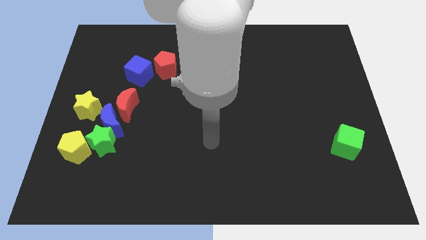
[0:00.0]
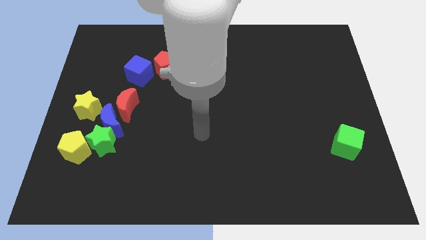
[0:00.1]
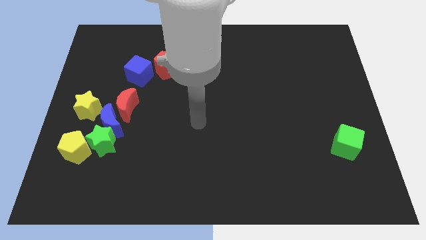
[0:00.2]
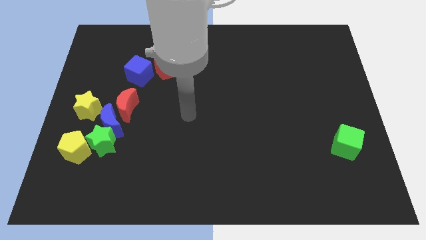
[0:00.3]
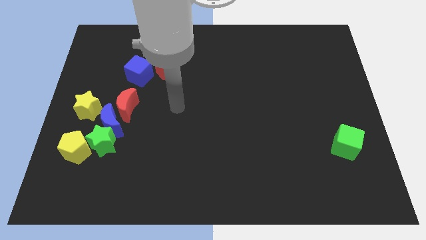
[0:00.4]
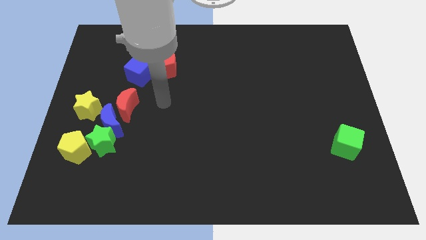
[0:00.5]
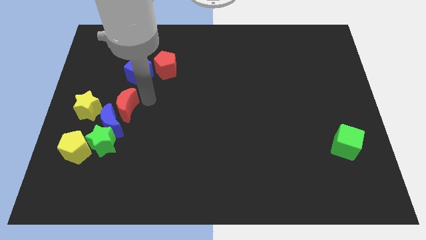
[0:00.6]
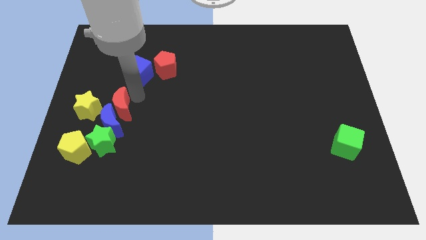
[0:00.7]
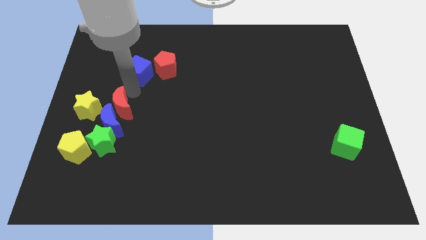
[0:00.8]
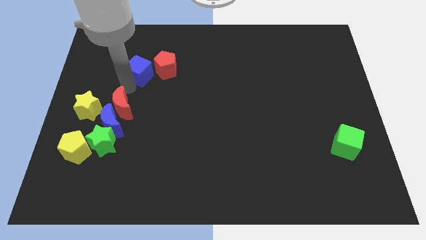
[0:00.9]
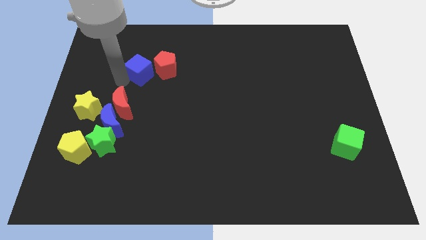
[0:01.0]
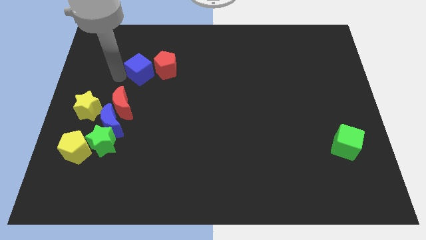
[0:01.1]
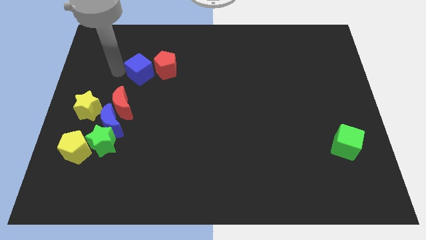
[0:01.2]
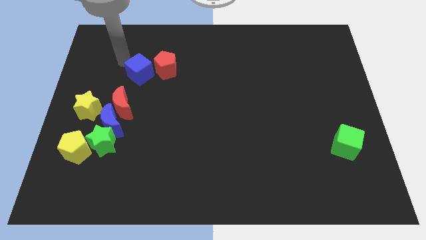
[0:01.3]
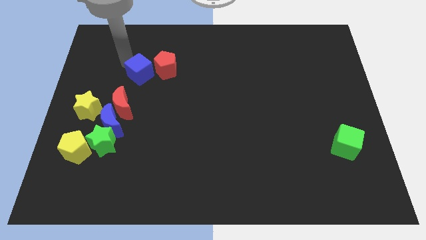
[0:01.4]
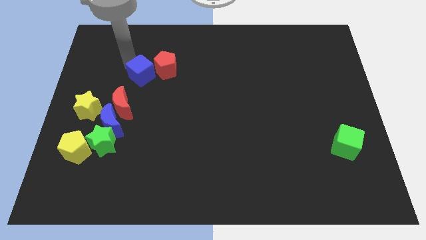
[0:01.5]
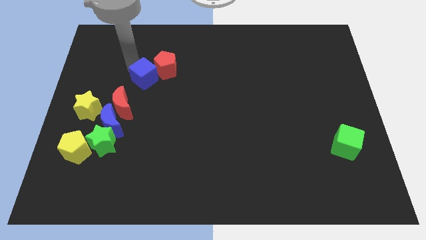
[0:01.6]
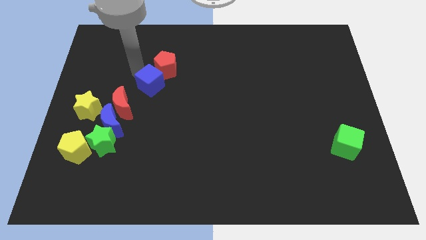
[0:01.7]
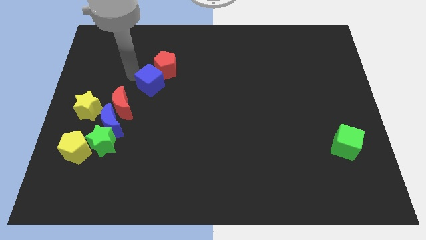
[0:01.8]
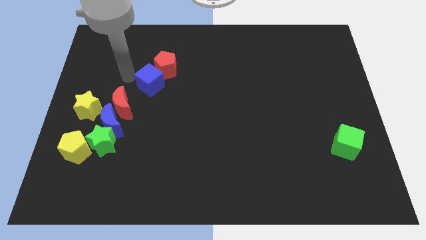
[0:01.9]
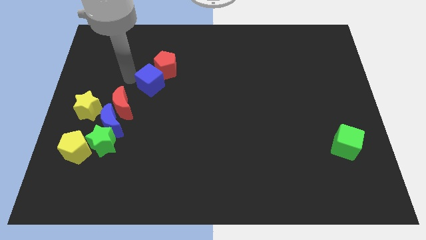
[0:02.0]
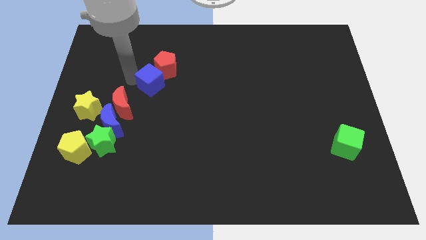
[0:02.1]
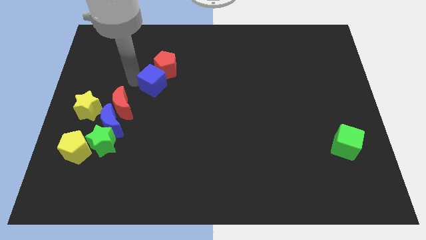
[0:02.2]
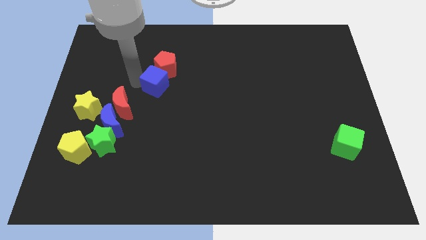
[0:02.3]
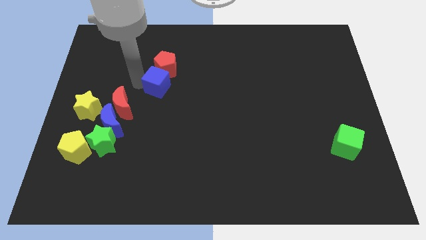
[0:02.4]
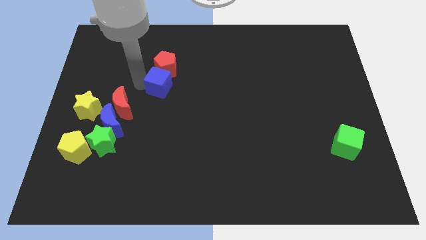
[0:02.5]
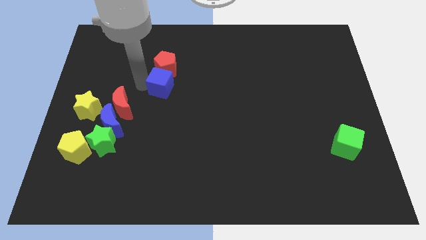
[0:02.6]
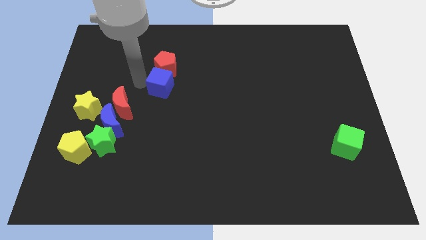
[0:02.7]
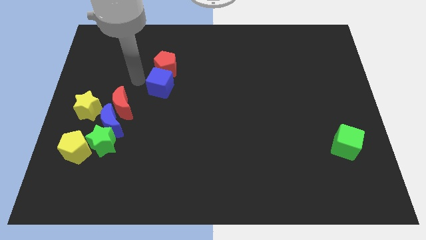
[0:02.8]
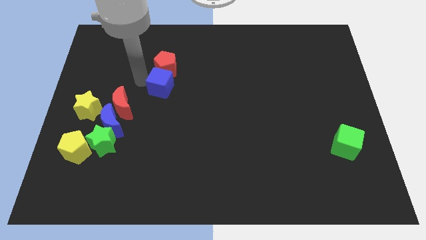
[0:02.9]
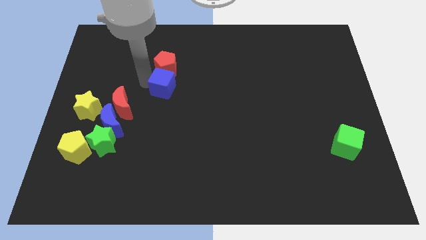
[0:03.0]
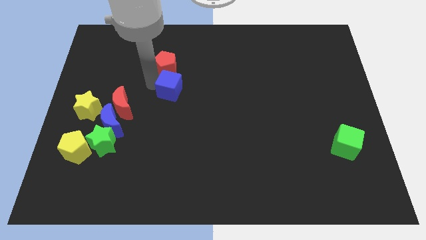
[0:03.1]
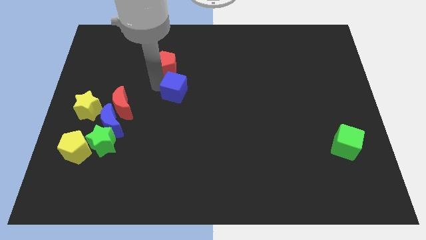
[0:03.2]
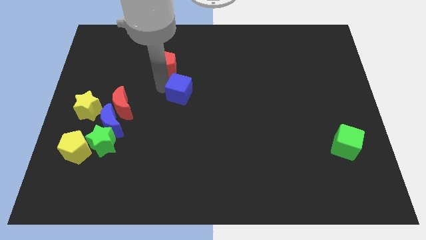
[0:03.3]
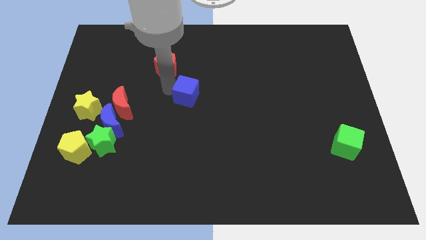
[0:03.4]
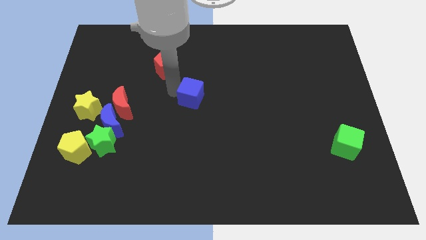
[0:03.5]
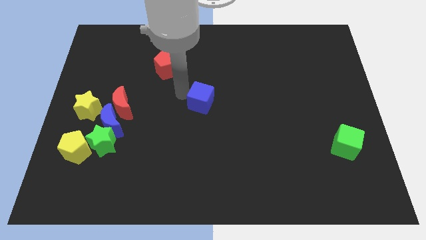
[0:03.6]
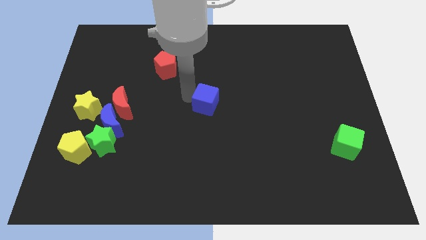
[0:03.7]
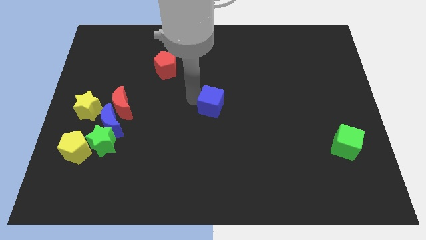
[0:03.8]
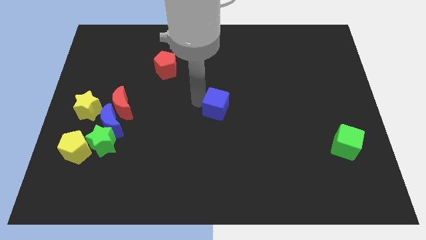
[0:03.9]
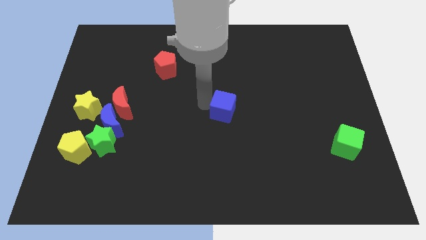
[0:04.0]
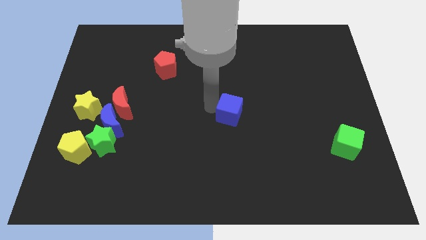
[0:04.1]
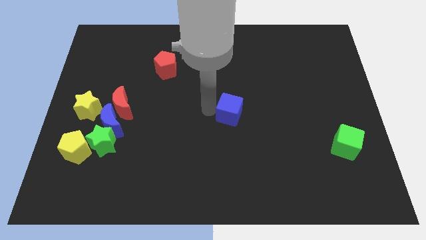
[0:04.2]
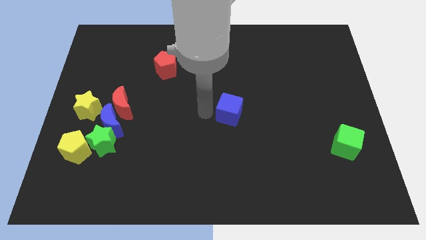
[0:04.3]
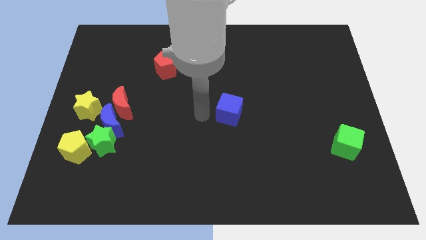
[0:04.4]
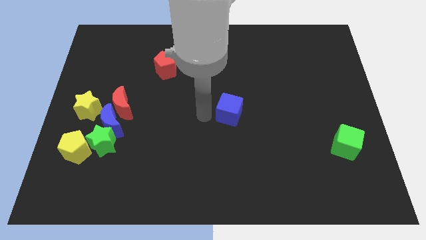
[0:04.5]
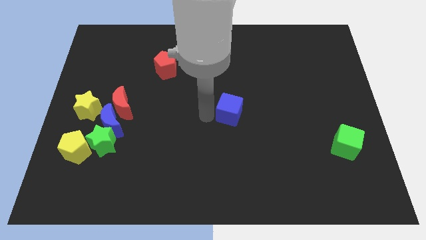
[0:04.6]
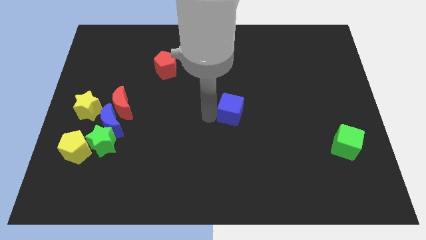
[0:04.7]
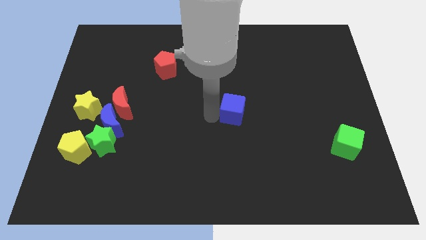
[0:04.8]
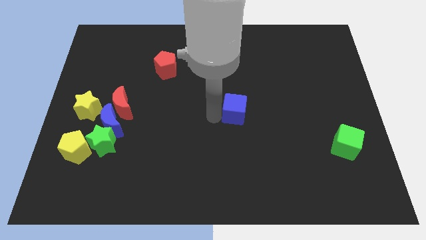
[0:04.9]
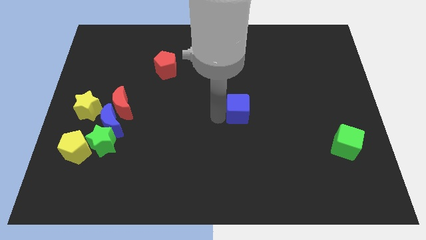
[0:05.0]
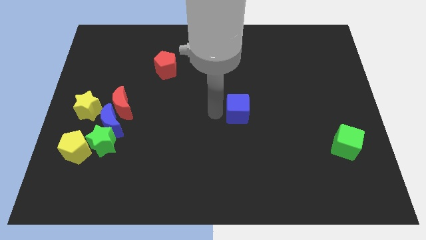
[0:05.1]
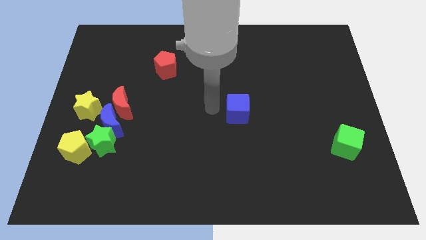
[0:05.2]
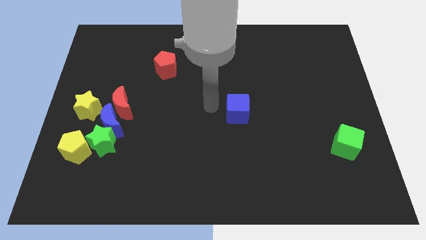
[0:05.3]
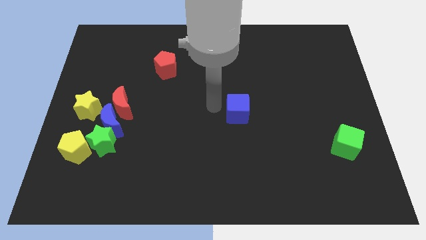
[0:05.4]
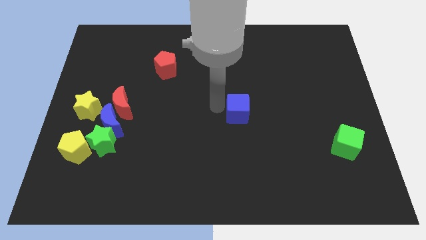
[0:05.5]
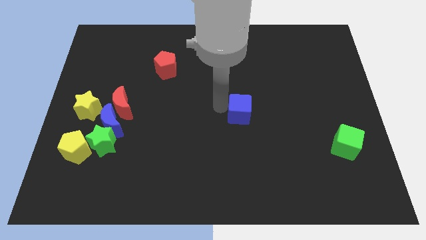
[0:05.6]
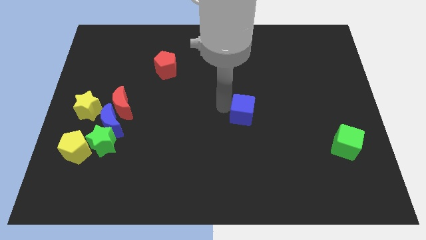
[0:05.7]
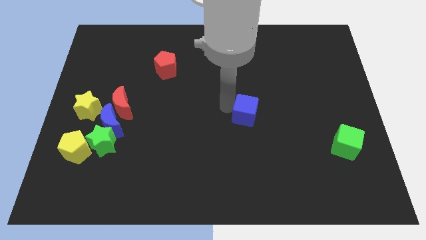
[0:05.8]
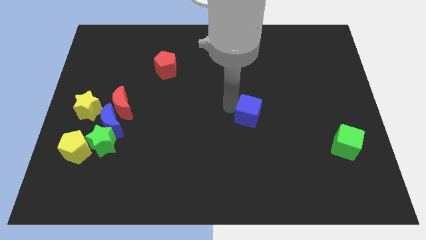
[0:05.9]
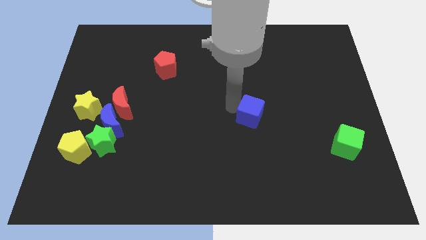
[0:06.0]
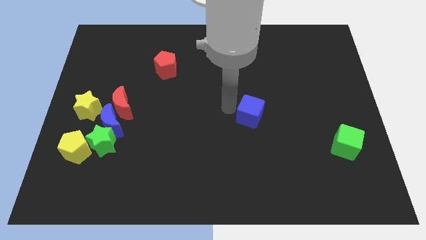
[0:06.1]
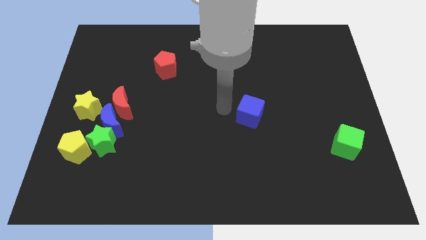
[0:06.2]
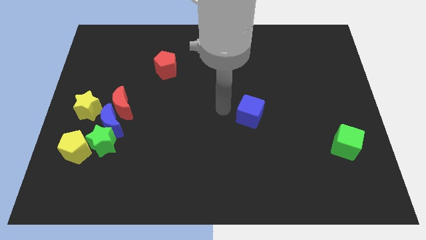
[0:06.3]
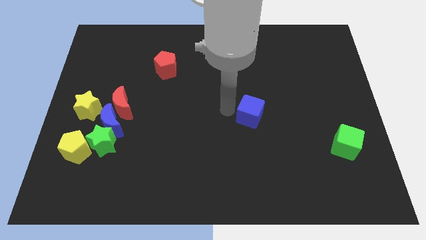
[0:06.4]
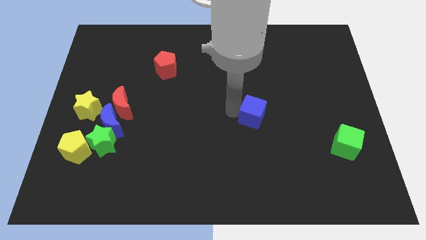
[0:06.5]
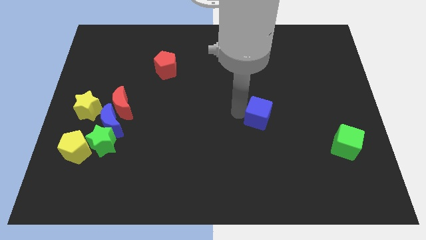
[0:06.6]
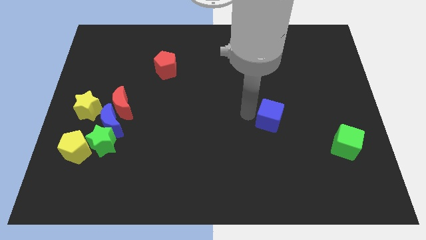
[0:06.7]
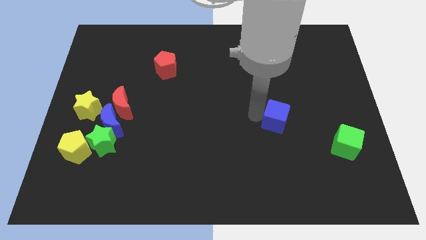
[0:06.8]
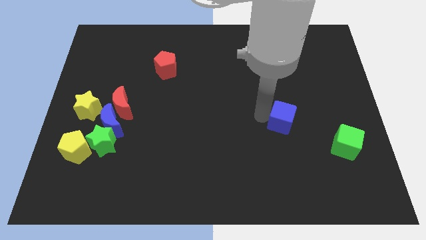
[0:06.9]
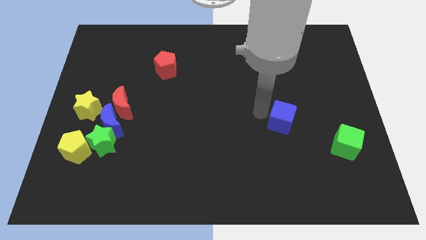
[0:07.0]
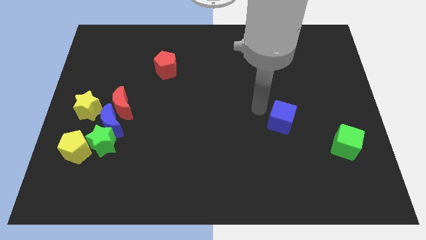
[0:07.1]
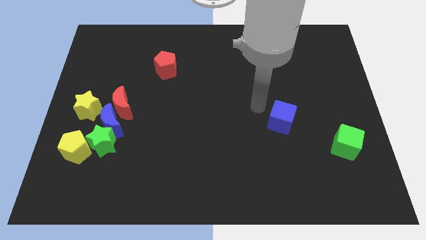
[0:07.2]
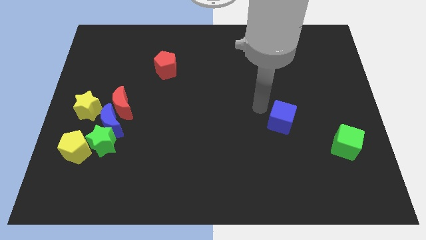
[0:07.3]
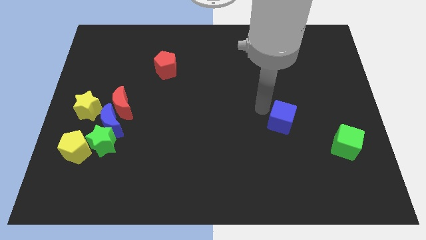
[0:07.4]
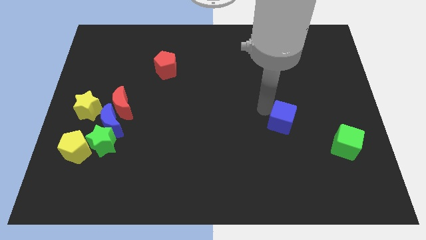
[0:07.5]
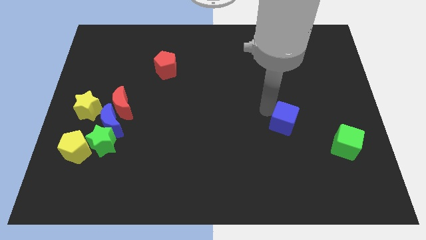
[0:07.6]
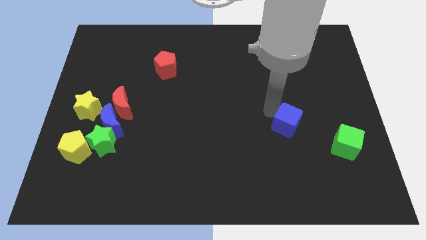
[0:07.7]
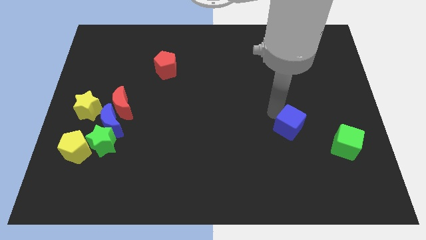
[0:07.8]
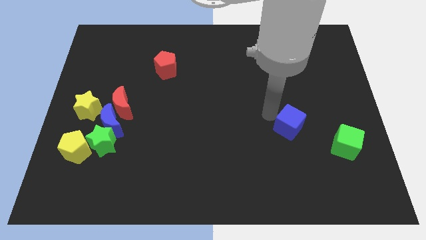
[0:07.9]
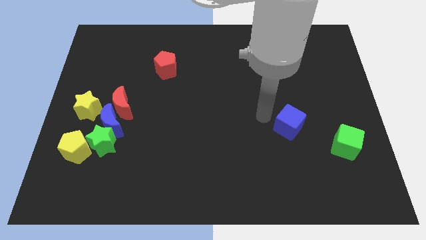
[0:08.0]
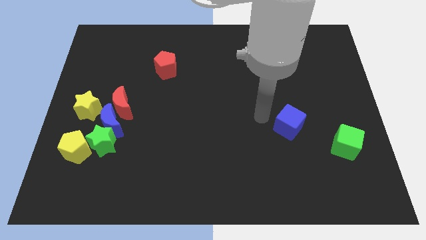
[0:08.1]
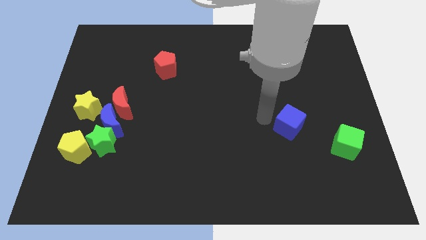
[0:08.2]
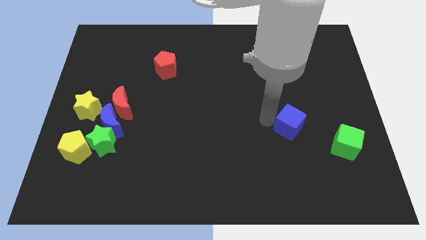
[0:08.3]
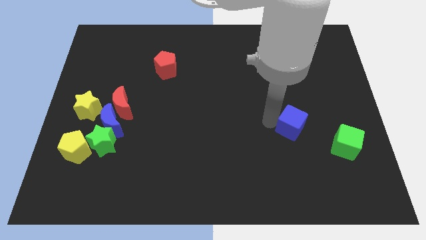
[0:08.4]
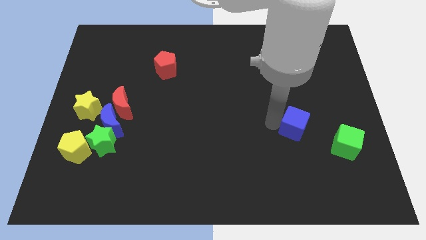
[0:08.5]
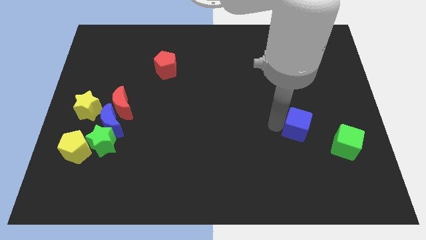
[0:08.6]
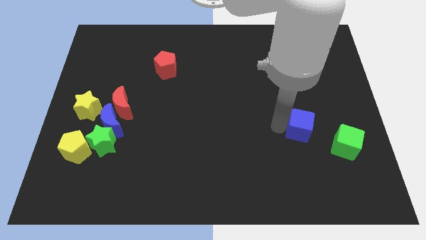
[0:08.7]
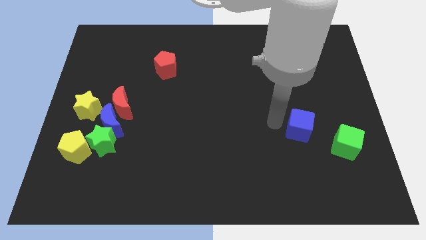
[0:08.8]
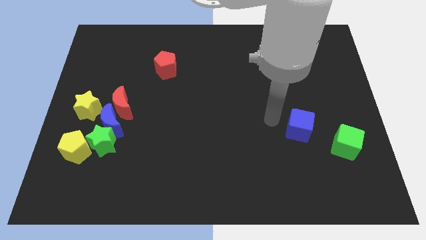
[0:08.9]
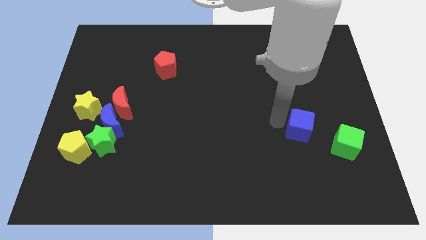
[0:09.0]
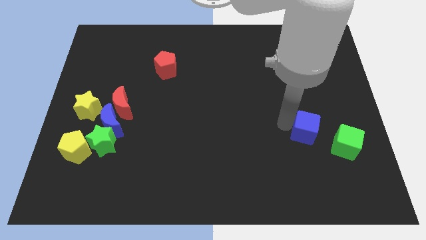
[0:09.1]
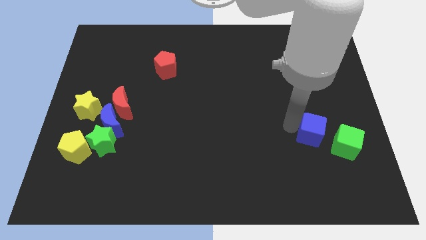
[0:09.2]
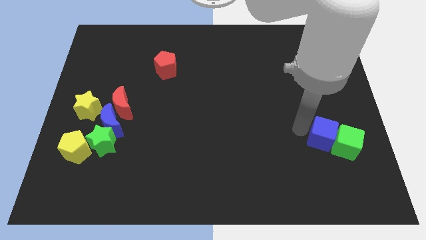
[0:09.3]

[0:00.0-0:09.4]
slide the blue cube next to the green cube
